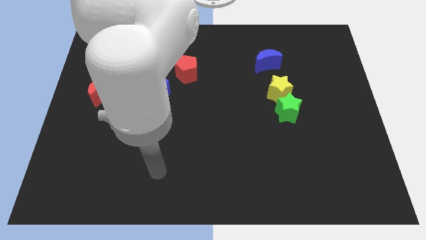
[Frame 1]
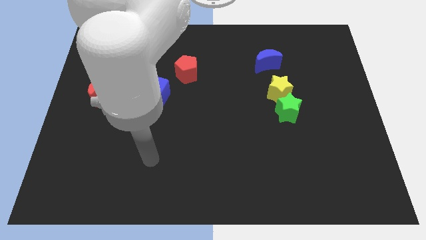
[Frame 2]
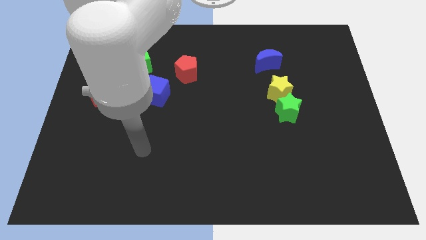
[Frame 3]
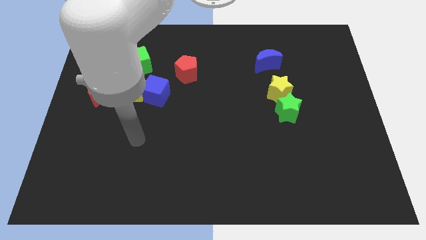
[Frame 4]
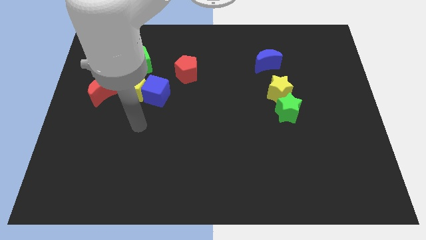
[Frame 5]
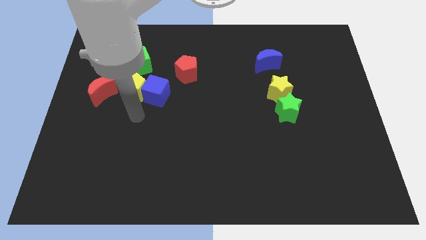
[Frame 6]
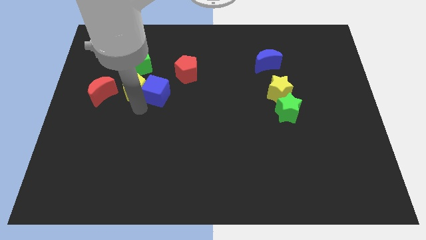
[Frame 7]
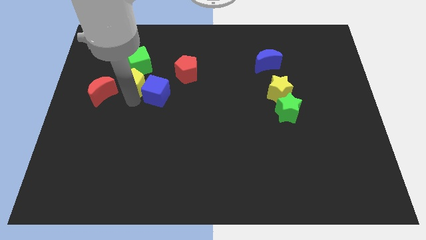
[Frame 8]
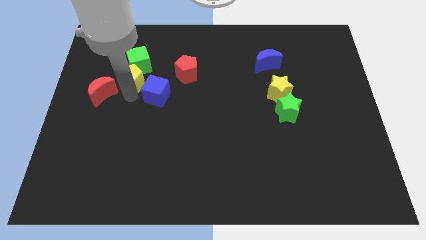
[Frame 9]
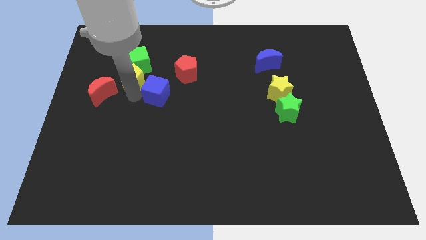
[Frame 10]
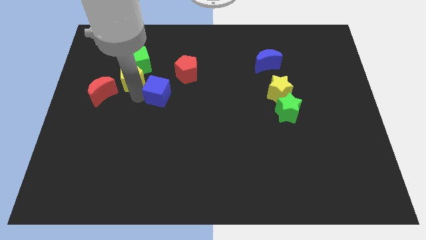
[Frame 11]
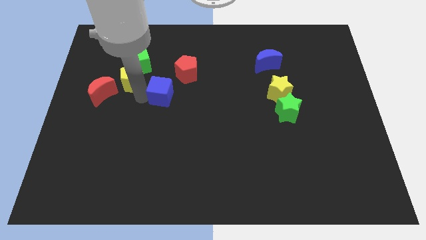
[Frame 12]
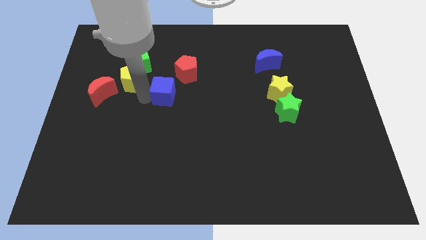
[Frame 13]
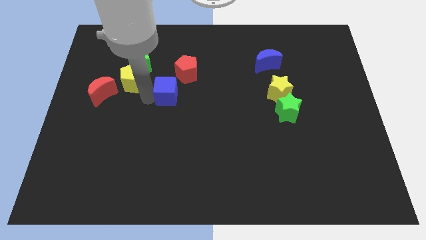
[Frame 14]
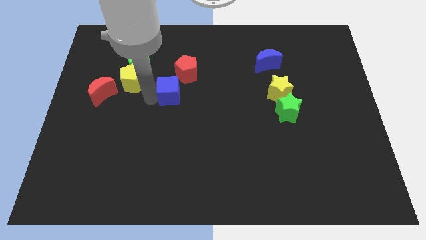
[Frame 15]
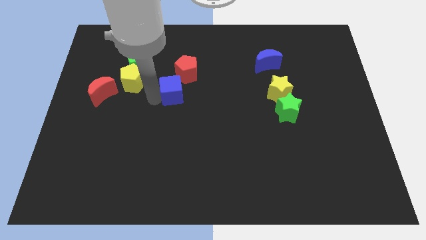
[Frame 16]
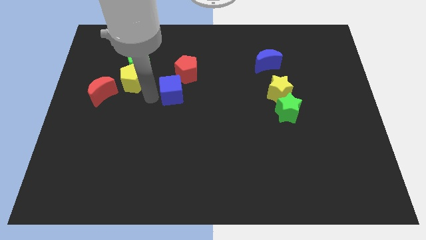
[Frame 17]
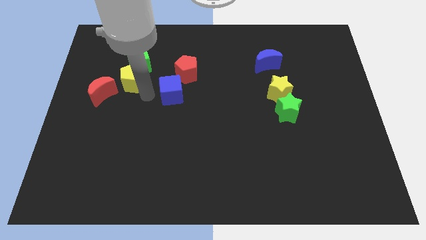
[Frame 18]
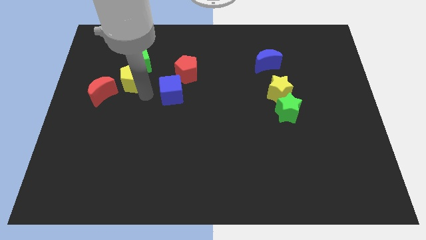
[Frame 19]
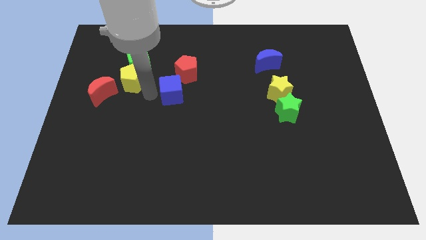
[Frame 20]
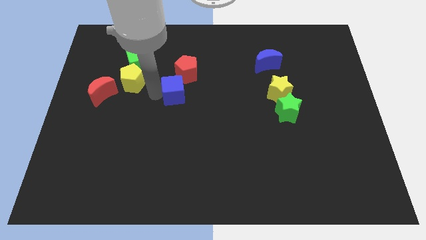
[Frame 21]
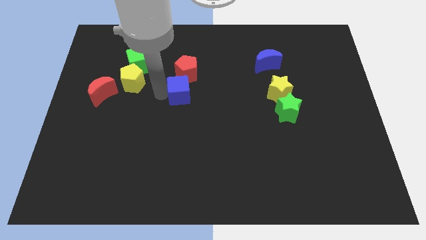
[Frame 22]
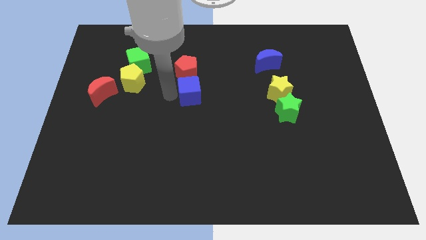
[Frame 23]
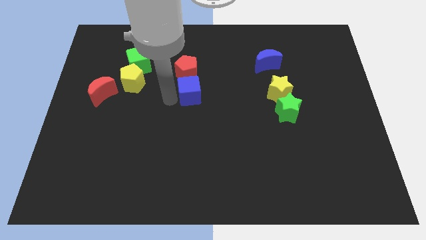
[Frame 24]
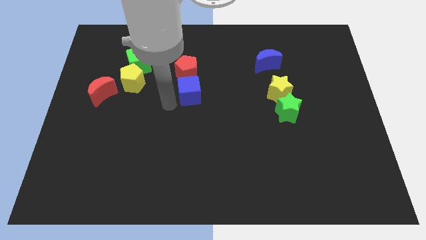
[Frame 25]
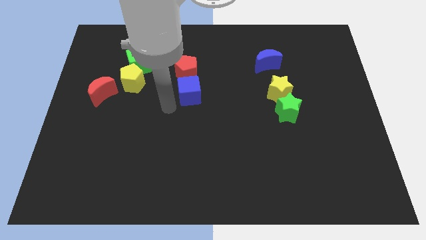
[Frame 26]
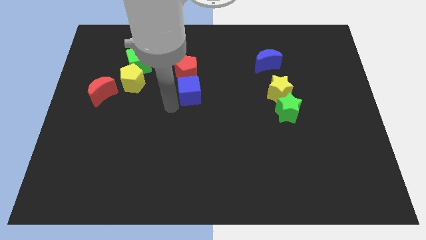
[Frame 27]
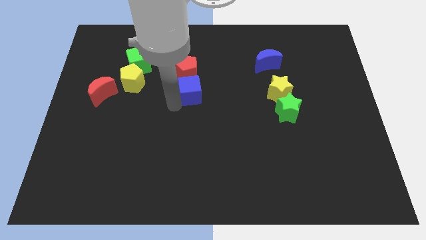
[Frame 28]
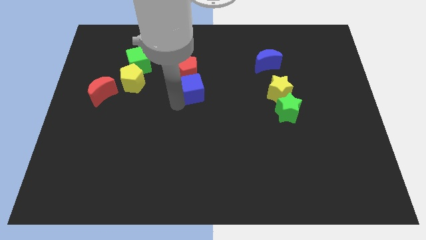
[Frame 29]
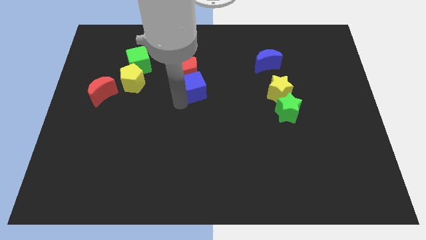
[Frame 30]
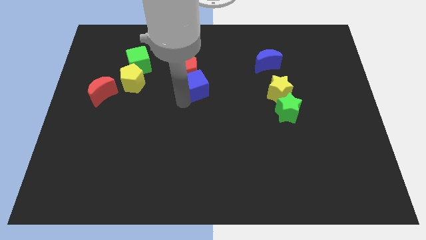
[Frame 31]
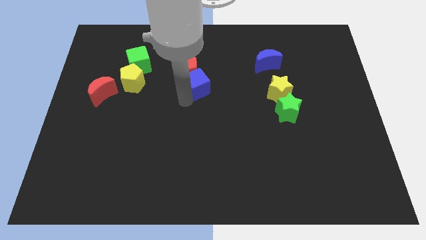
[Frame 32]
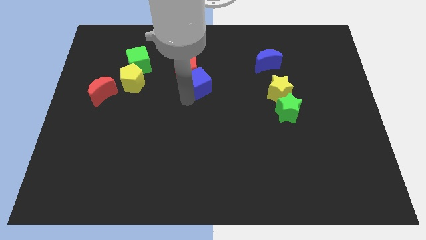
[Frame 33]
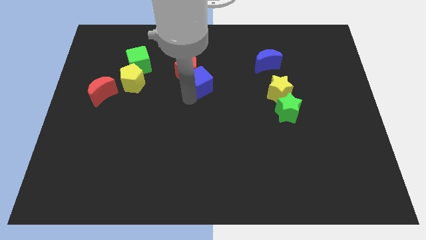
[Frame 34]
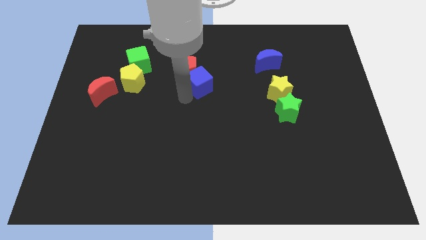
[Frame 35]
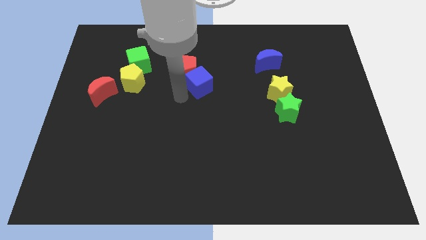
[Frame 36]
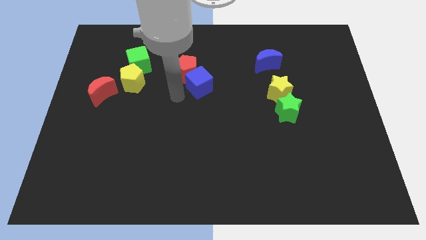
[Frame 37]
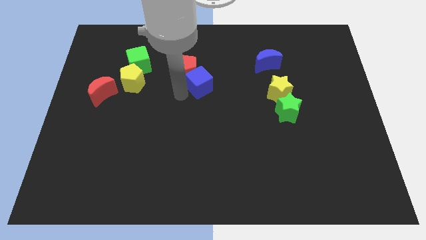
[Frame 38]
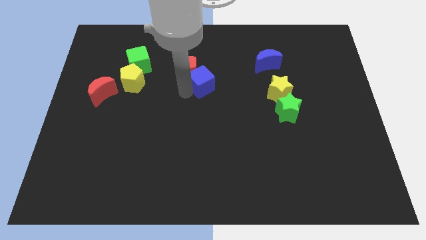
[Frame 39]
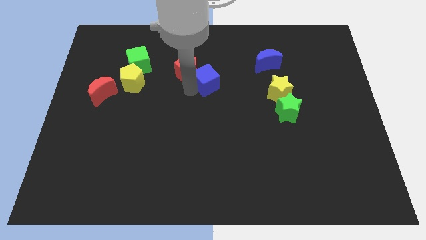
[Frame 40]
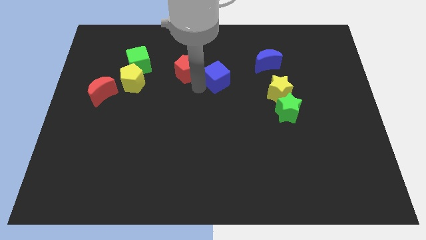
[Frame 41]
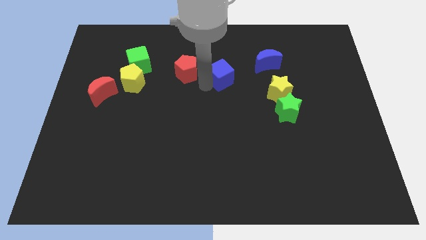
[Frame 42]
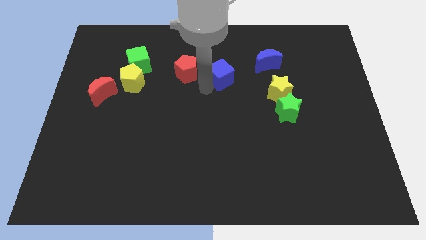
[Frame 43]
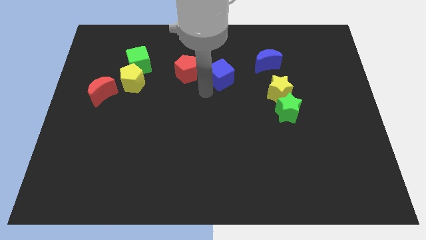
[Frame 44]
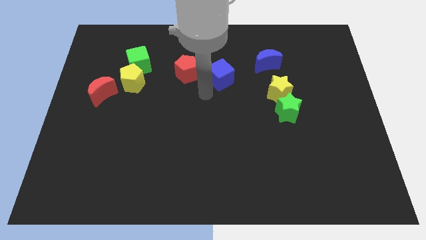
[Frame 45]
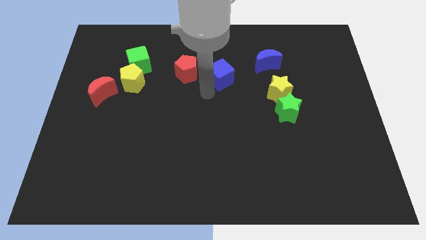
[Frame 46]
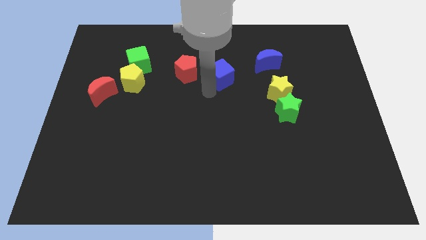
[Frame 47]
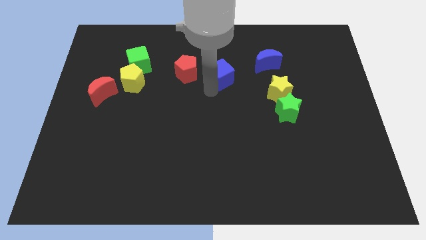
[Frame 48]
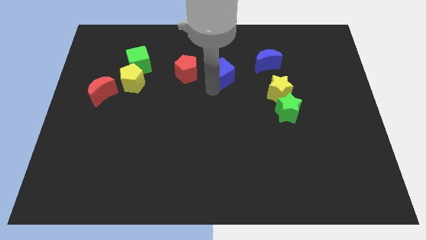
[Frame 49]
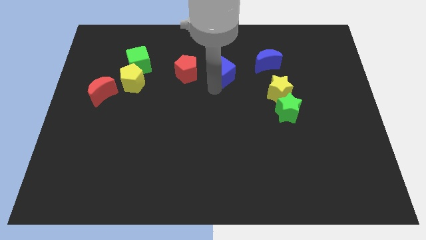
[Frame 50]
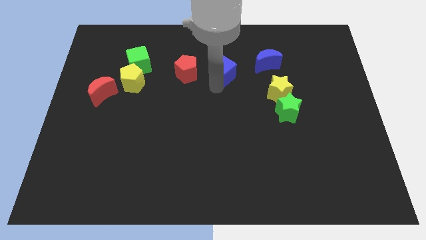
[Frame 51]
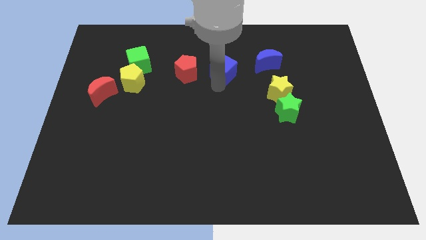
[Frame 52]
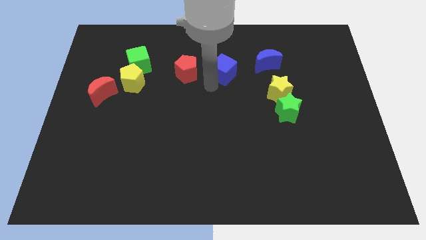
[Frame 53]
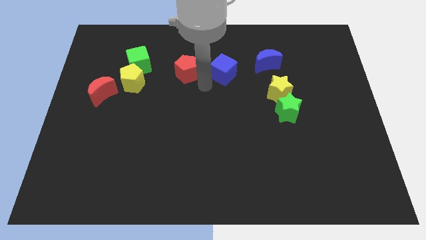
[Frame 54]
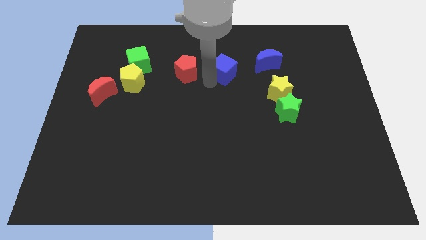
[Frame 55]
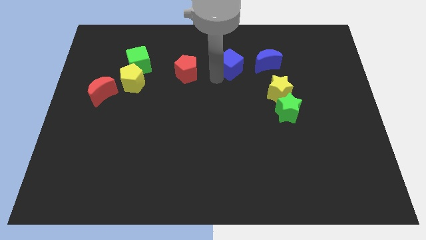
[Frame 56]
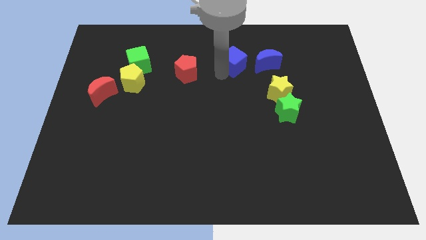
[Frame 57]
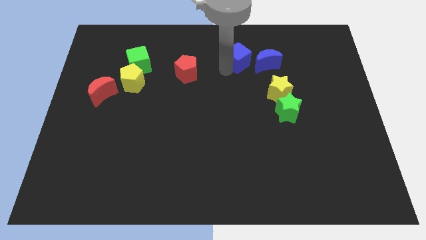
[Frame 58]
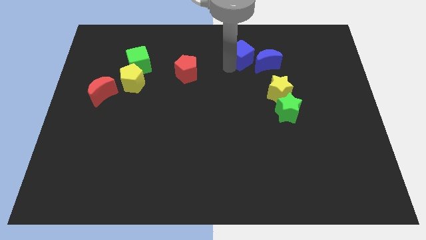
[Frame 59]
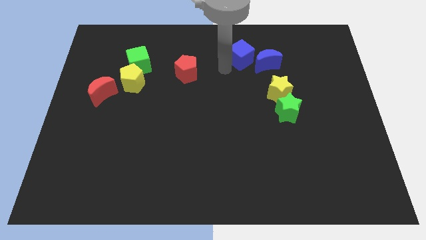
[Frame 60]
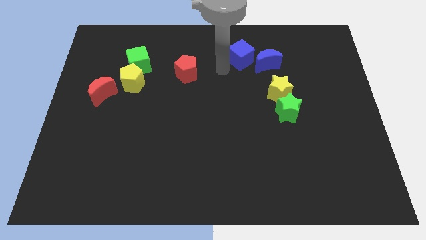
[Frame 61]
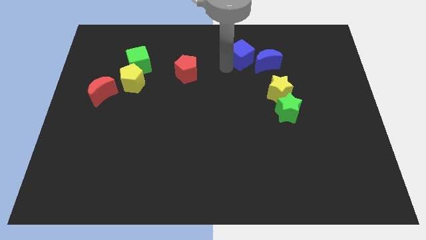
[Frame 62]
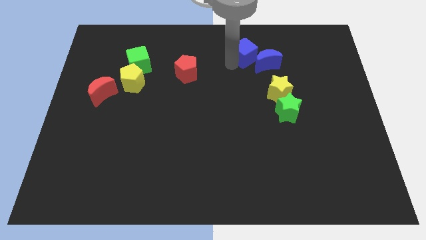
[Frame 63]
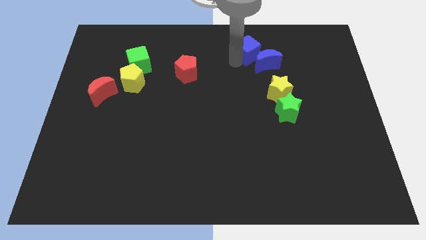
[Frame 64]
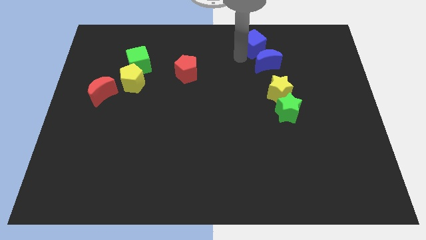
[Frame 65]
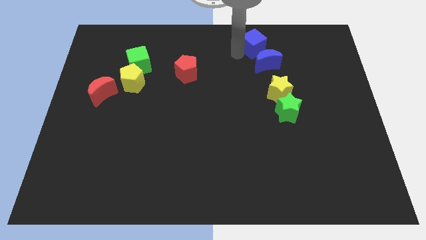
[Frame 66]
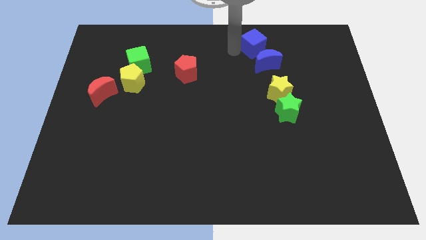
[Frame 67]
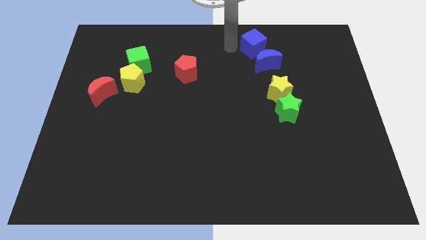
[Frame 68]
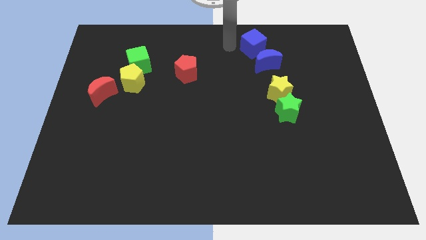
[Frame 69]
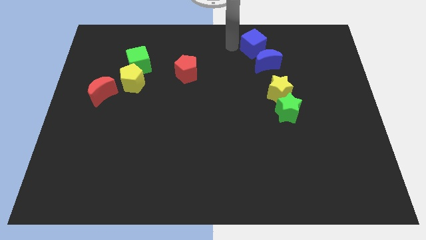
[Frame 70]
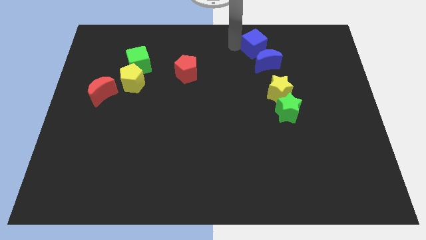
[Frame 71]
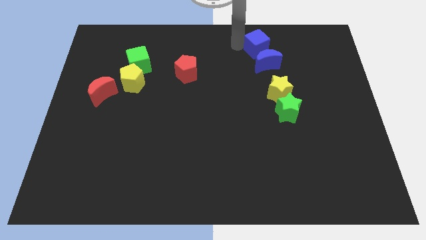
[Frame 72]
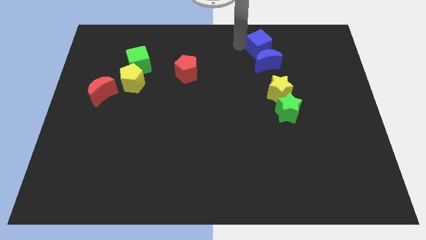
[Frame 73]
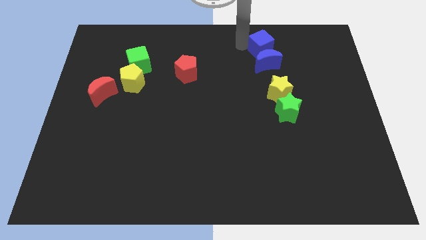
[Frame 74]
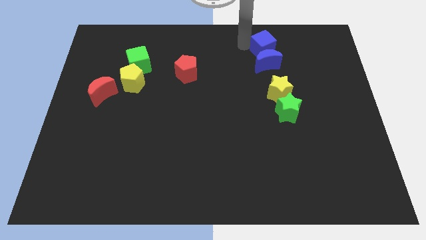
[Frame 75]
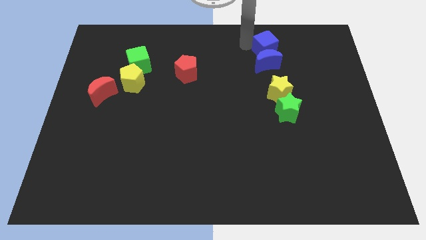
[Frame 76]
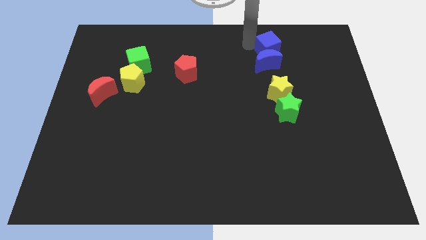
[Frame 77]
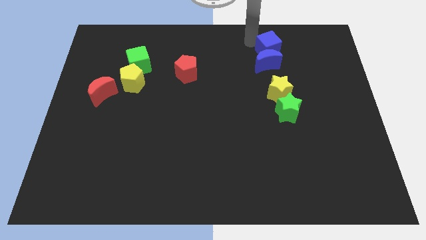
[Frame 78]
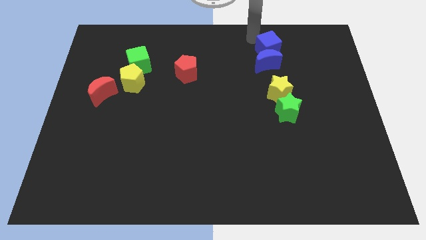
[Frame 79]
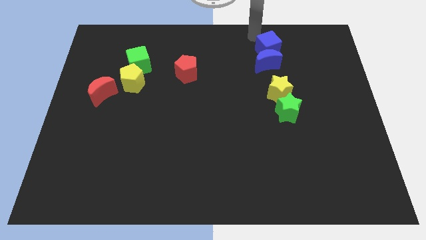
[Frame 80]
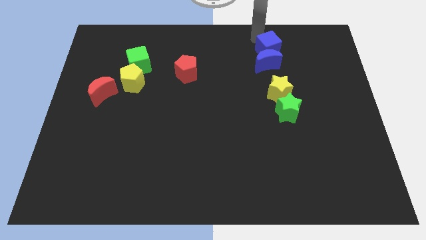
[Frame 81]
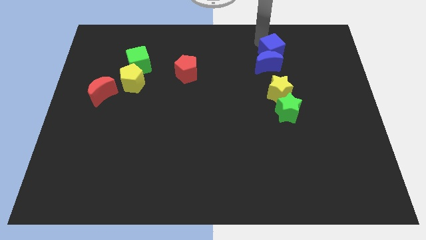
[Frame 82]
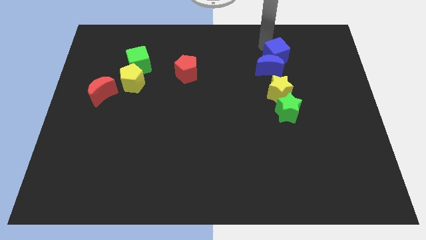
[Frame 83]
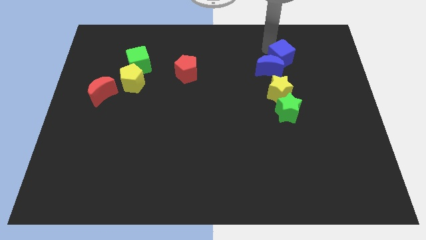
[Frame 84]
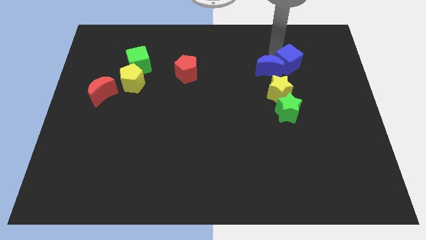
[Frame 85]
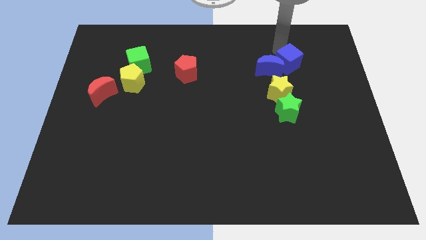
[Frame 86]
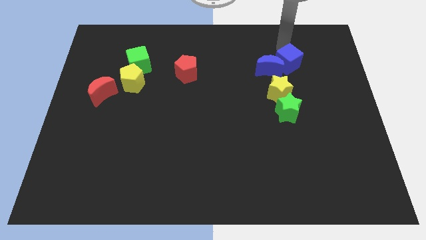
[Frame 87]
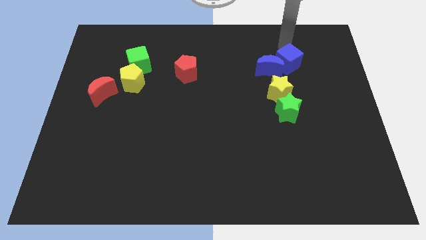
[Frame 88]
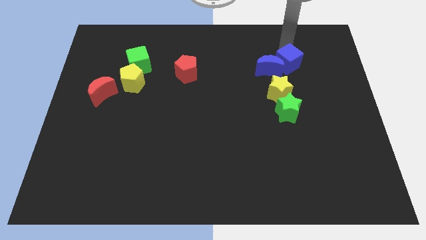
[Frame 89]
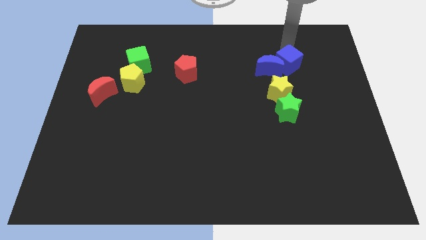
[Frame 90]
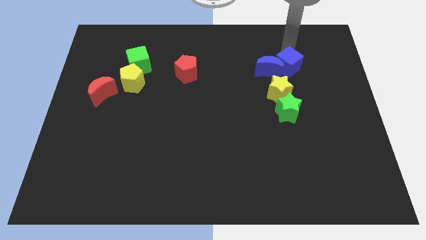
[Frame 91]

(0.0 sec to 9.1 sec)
push the blue cube to the bottom right of the blue moon
